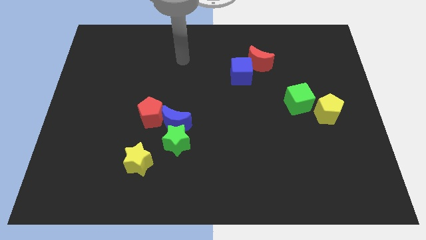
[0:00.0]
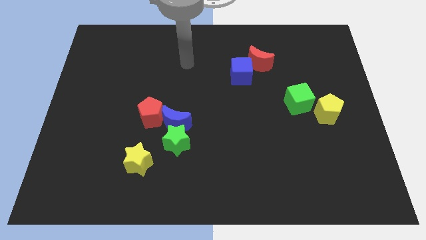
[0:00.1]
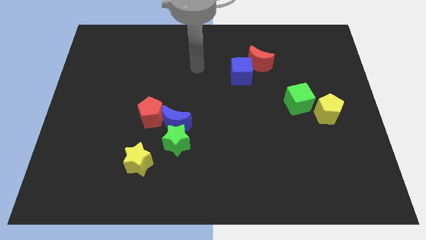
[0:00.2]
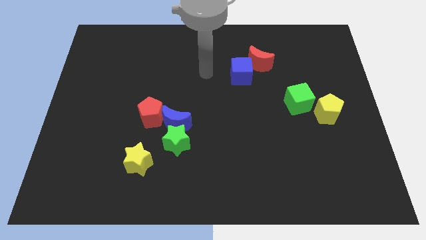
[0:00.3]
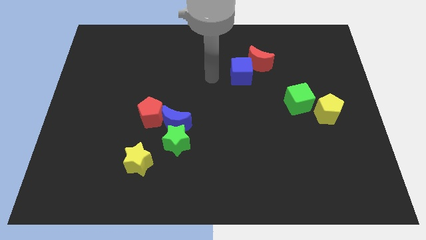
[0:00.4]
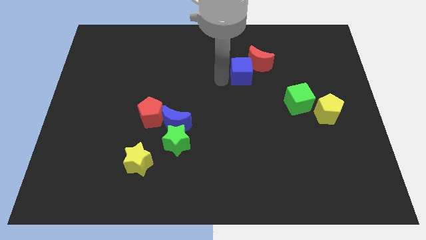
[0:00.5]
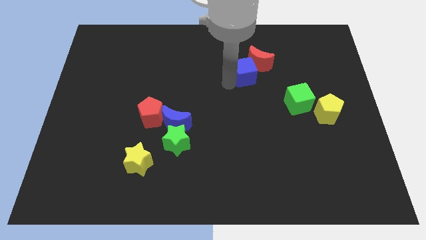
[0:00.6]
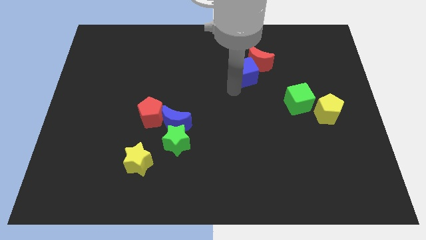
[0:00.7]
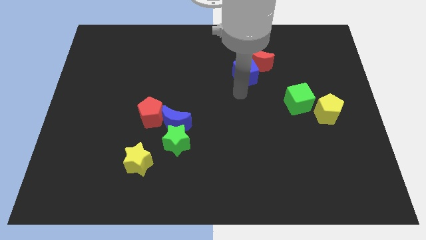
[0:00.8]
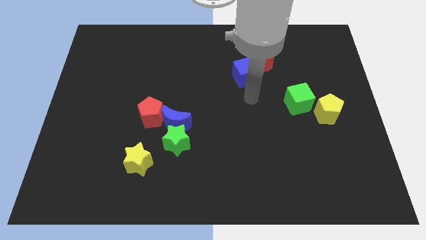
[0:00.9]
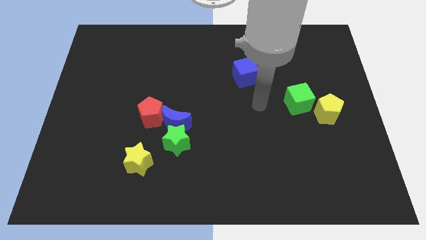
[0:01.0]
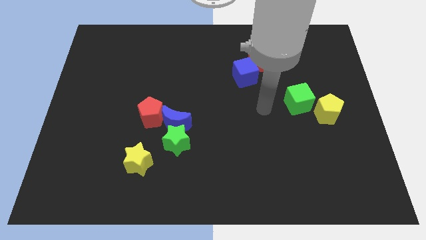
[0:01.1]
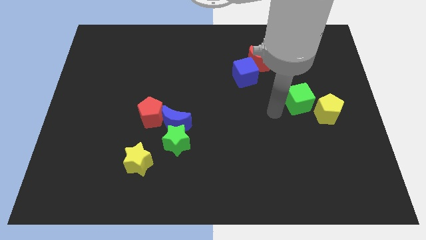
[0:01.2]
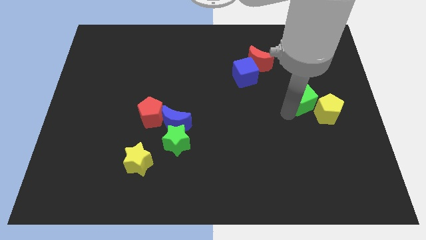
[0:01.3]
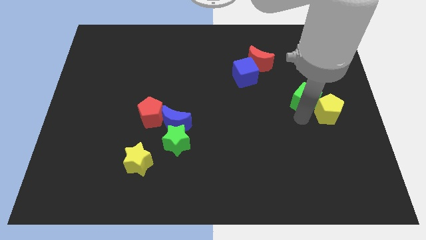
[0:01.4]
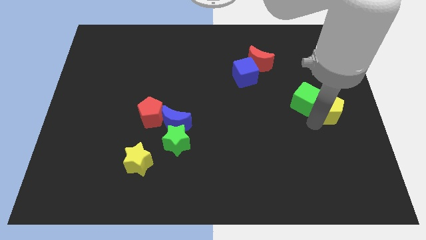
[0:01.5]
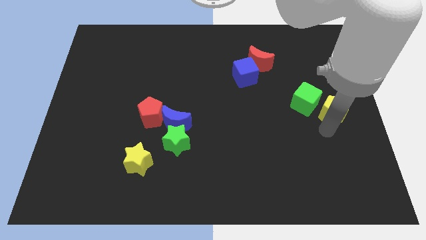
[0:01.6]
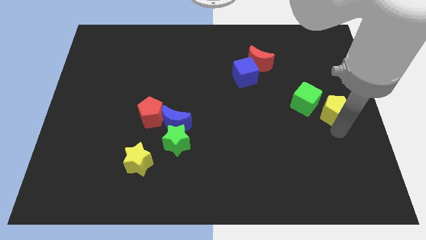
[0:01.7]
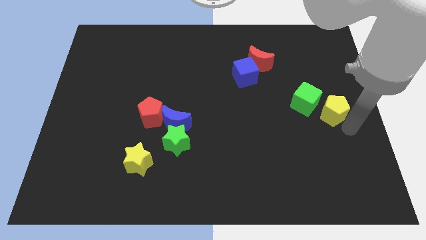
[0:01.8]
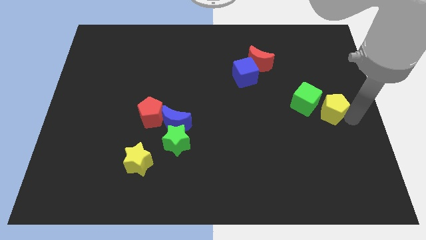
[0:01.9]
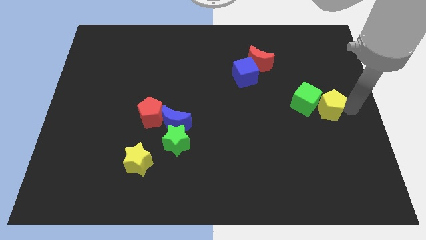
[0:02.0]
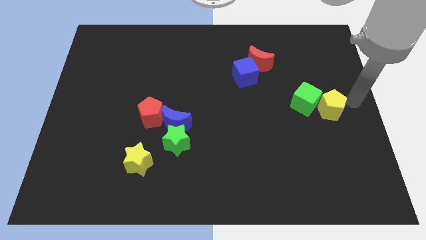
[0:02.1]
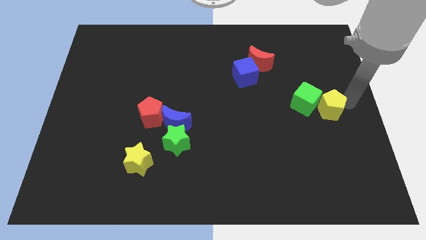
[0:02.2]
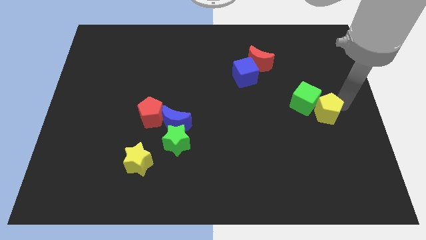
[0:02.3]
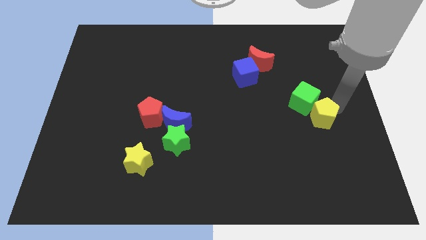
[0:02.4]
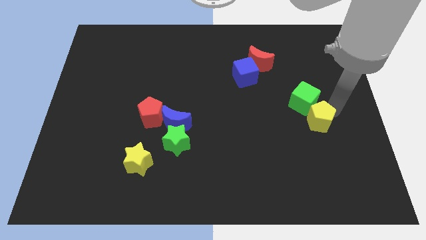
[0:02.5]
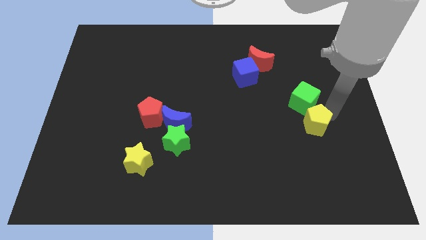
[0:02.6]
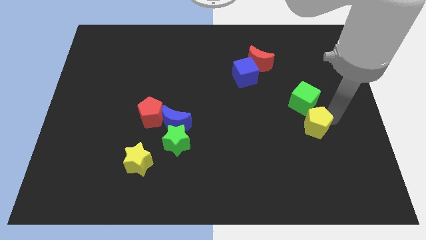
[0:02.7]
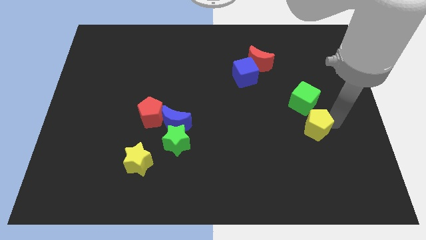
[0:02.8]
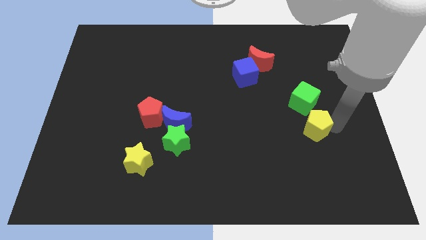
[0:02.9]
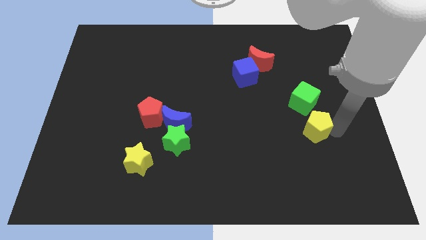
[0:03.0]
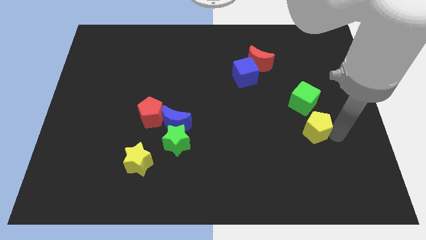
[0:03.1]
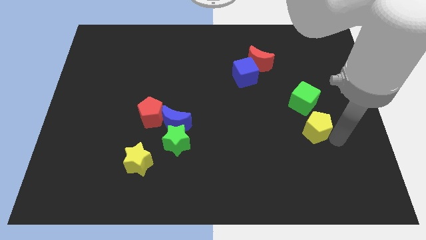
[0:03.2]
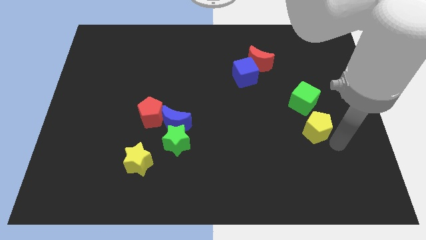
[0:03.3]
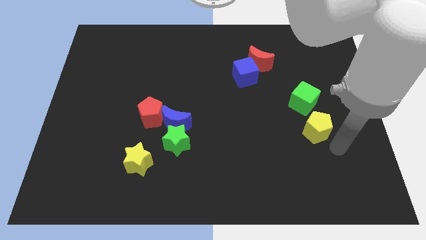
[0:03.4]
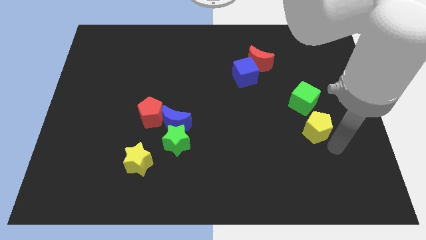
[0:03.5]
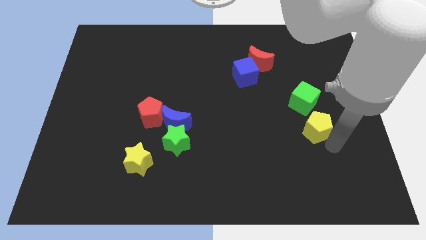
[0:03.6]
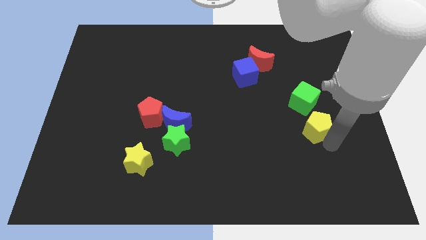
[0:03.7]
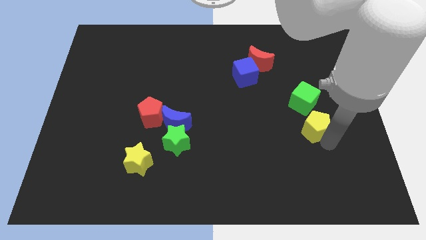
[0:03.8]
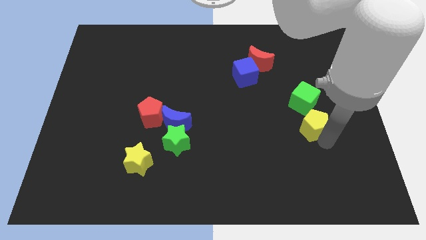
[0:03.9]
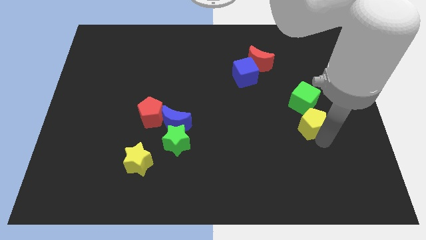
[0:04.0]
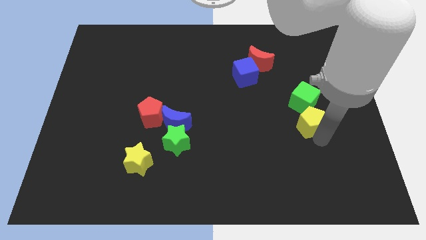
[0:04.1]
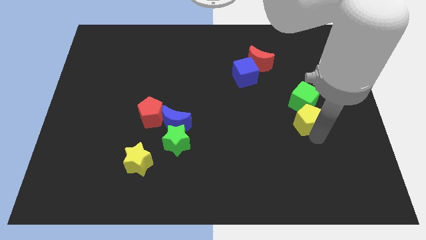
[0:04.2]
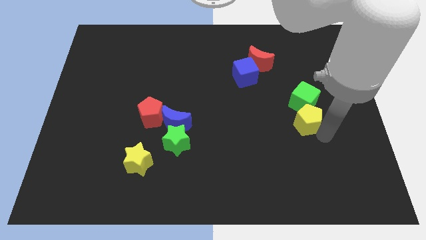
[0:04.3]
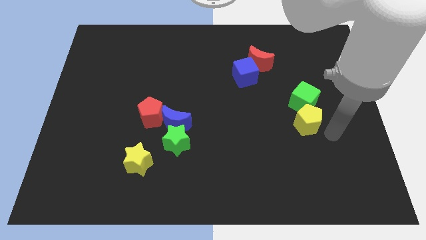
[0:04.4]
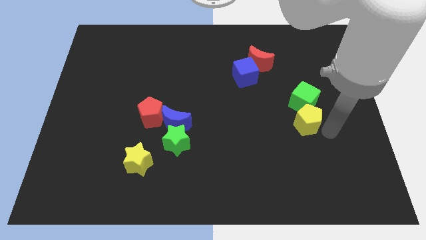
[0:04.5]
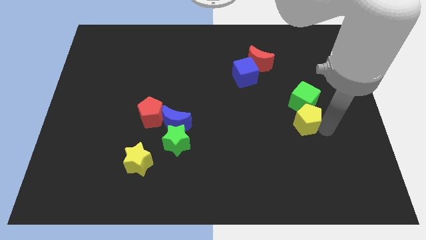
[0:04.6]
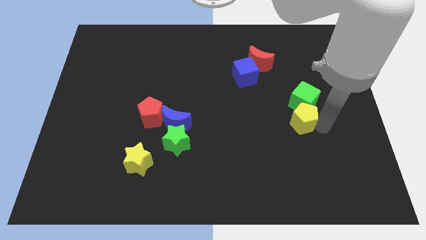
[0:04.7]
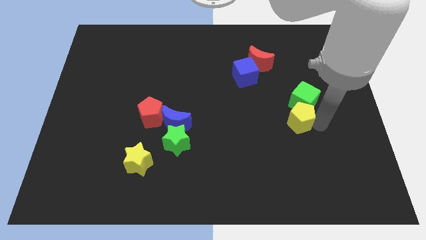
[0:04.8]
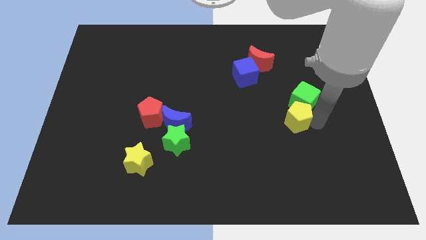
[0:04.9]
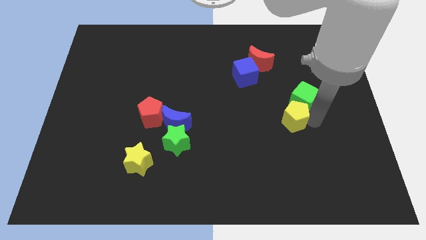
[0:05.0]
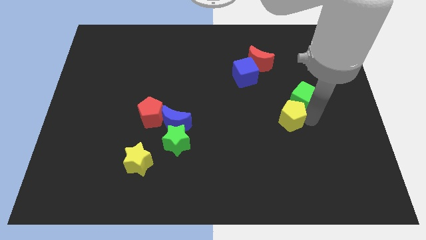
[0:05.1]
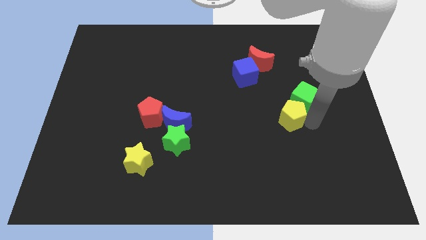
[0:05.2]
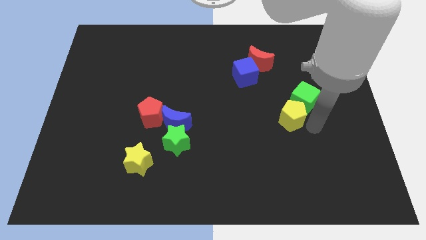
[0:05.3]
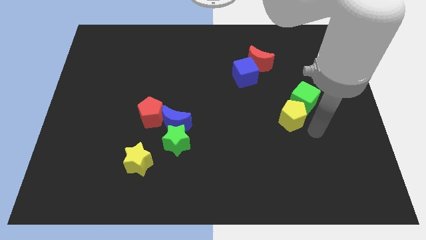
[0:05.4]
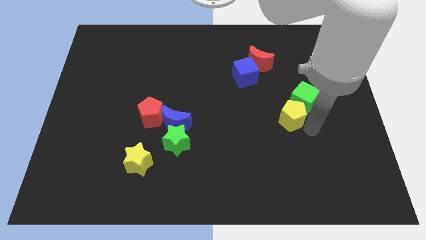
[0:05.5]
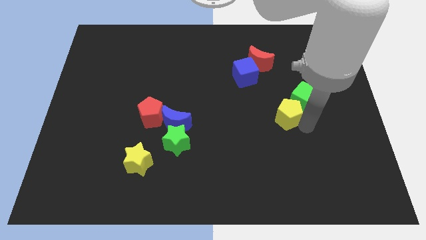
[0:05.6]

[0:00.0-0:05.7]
put the yellow pentagon left of the green cube

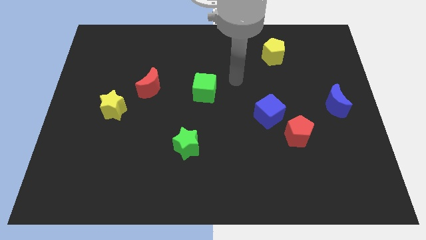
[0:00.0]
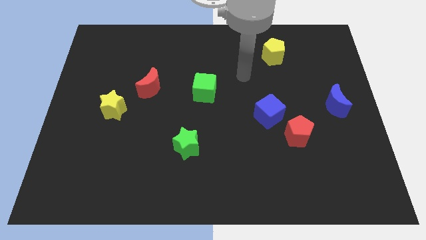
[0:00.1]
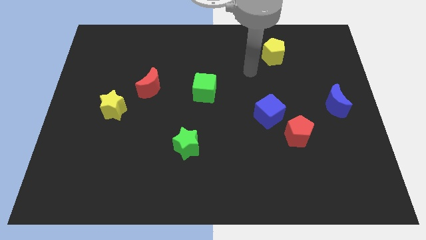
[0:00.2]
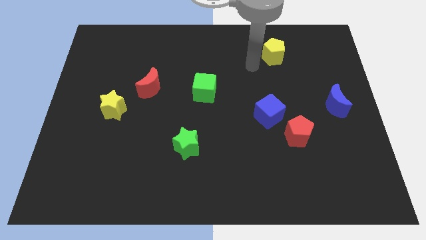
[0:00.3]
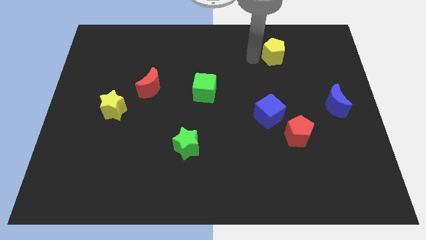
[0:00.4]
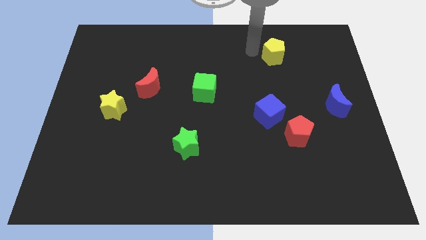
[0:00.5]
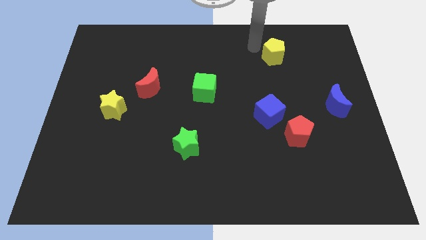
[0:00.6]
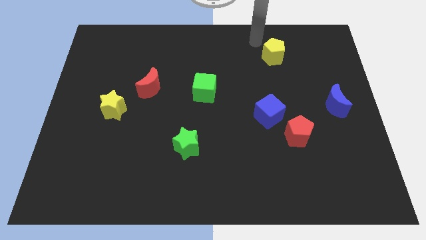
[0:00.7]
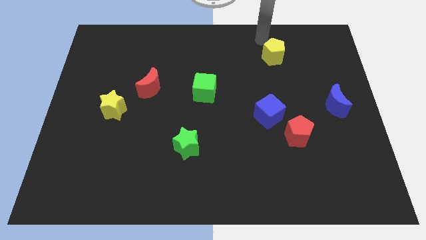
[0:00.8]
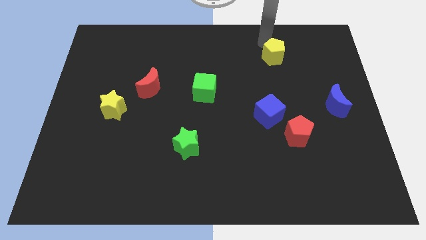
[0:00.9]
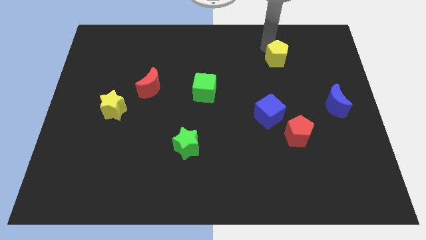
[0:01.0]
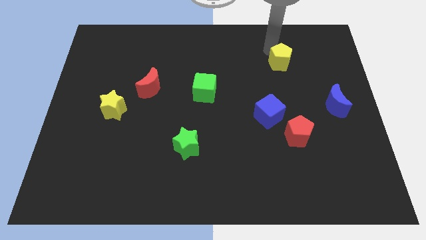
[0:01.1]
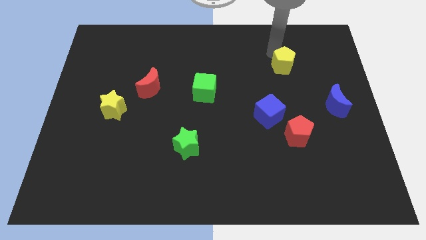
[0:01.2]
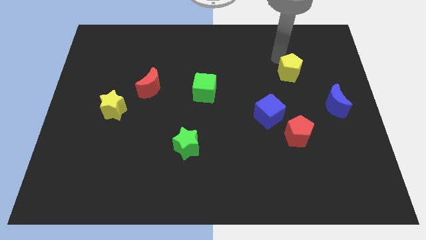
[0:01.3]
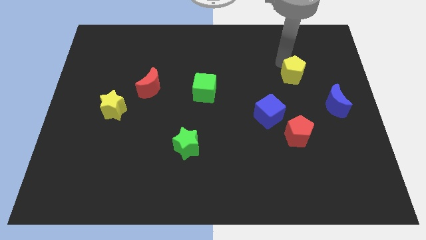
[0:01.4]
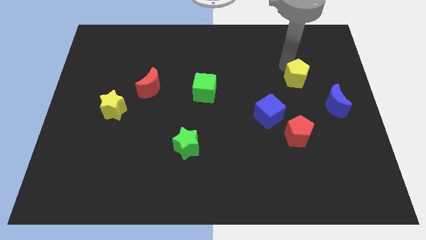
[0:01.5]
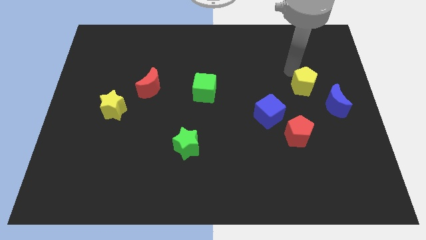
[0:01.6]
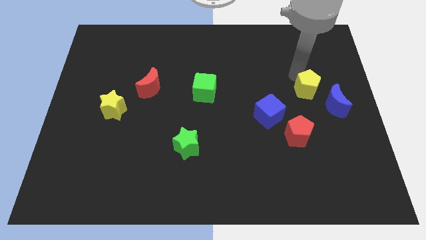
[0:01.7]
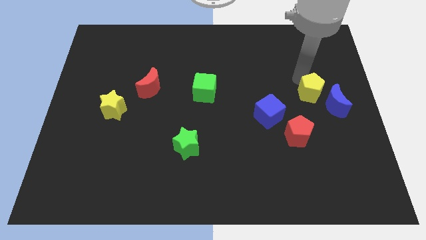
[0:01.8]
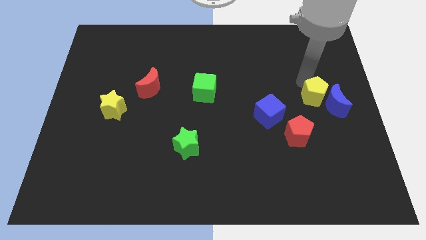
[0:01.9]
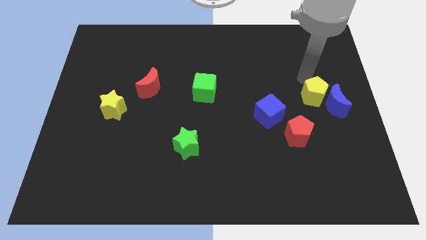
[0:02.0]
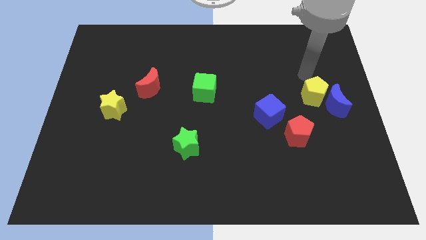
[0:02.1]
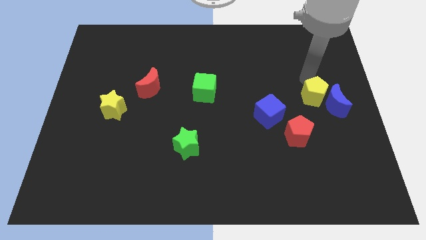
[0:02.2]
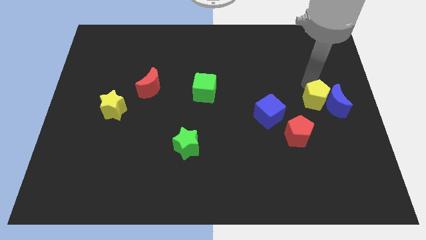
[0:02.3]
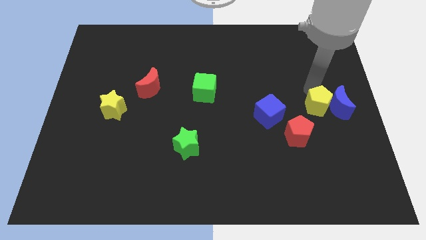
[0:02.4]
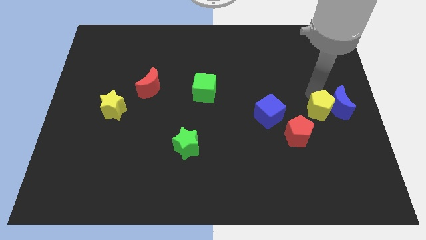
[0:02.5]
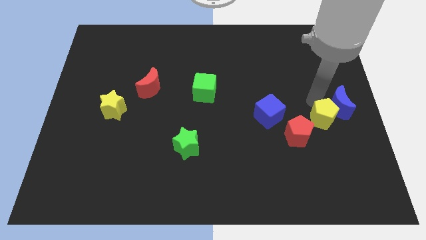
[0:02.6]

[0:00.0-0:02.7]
move the yellow pentagon just right of the red pentagon
